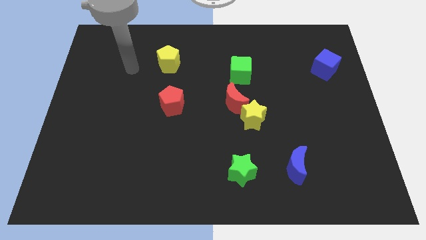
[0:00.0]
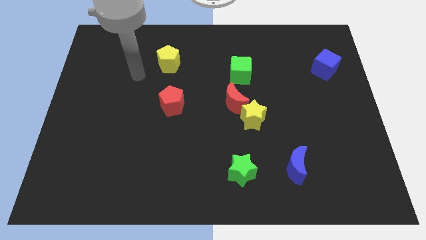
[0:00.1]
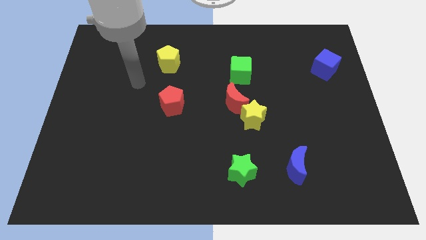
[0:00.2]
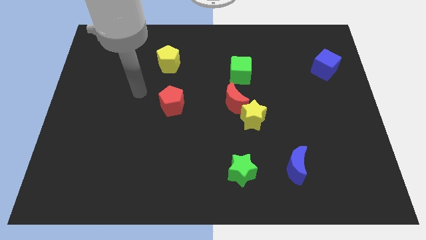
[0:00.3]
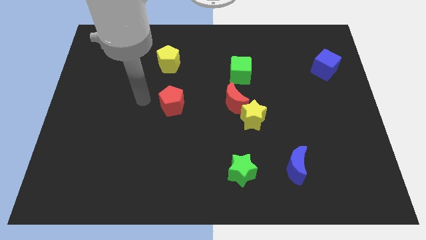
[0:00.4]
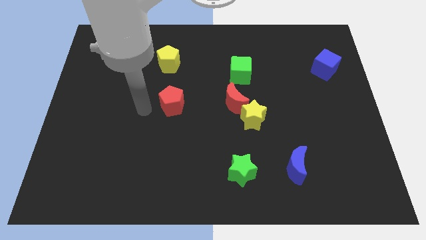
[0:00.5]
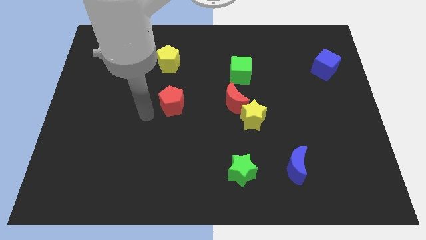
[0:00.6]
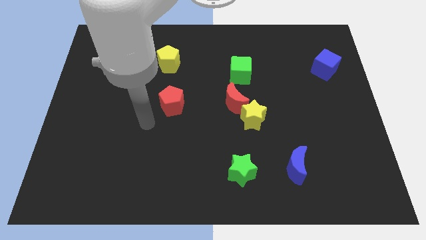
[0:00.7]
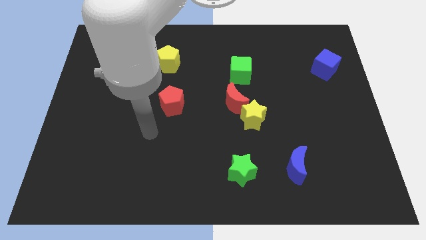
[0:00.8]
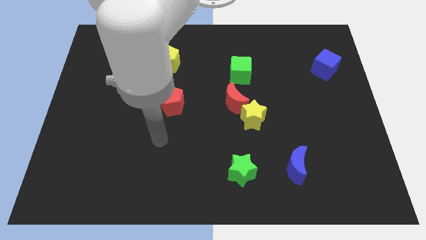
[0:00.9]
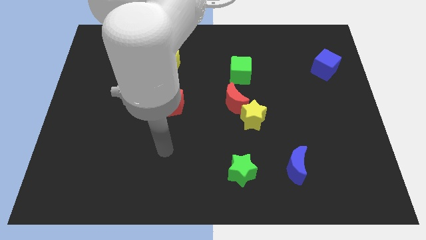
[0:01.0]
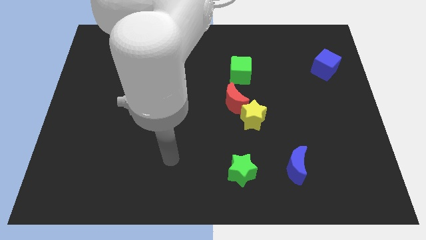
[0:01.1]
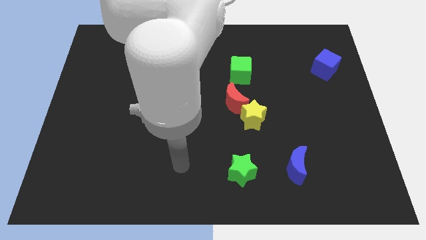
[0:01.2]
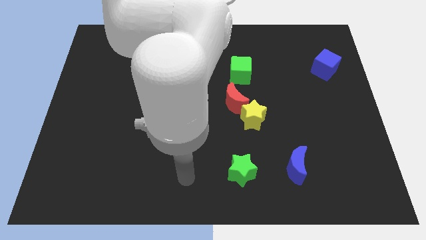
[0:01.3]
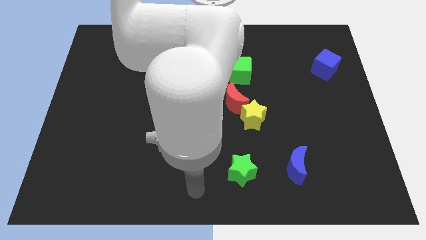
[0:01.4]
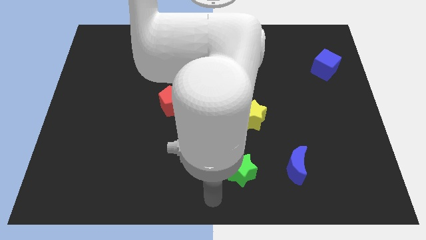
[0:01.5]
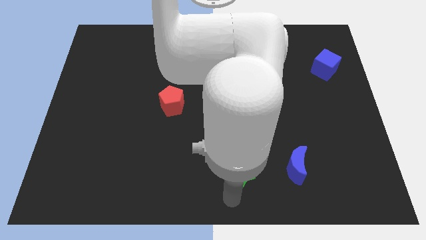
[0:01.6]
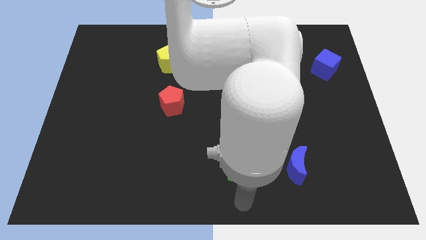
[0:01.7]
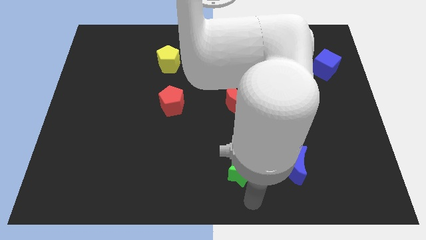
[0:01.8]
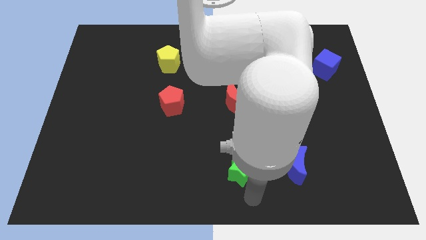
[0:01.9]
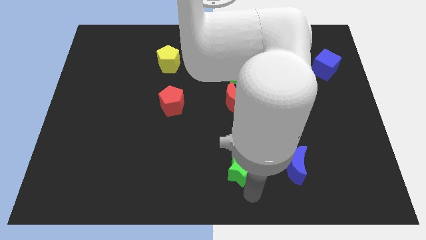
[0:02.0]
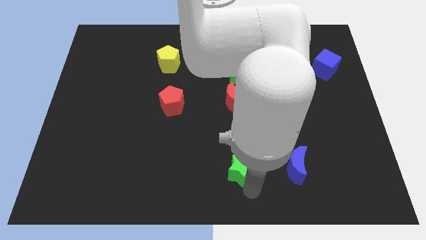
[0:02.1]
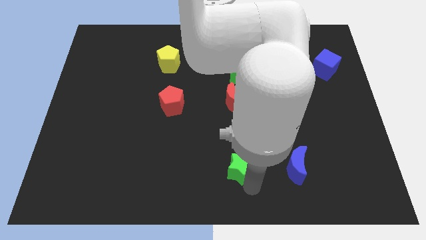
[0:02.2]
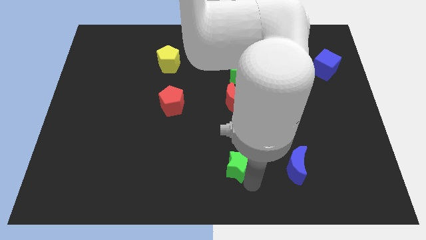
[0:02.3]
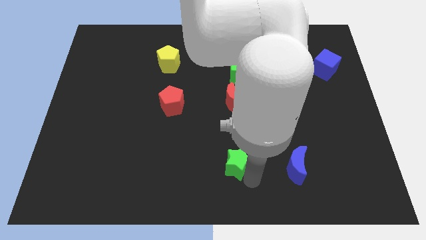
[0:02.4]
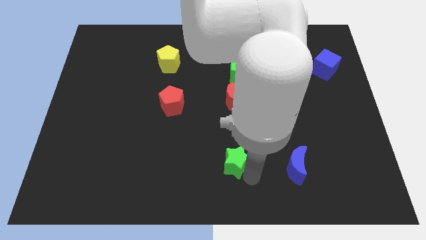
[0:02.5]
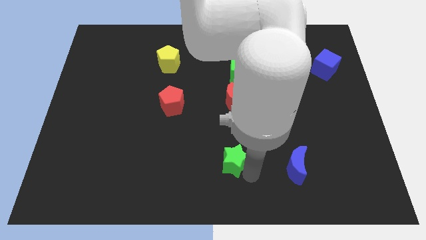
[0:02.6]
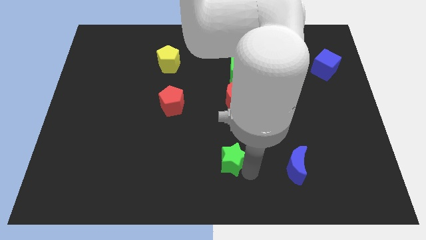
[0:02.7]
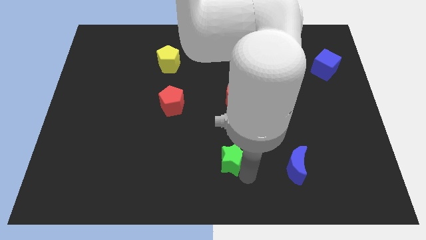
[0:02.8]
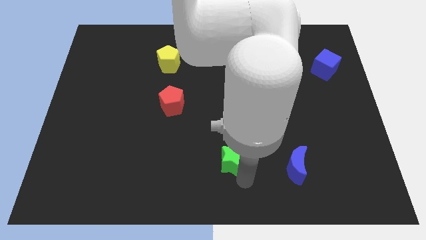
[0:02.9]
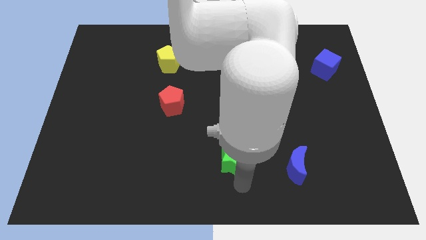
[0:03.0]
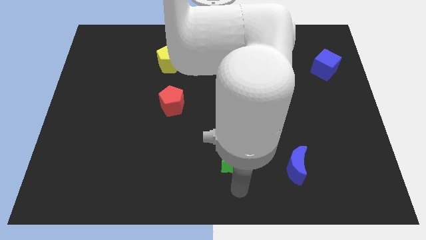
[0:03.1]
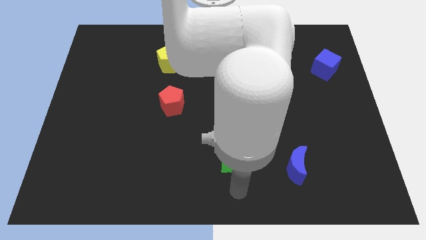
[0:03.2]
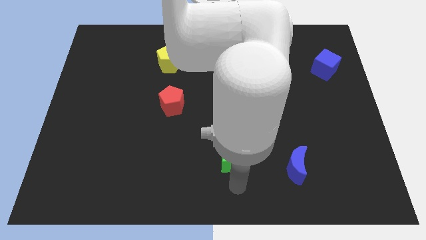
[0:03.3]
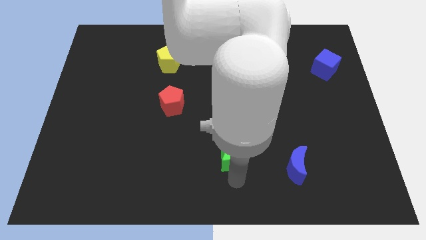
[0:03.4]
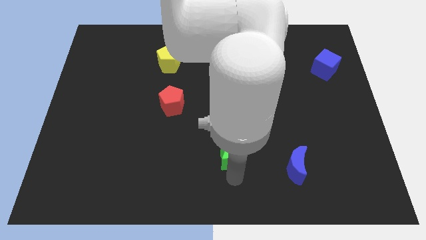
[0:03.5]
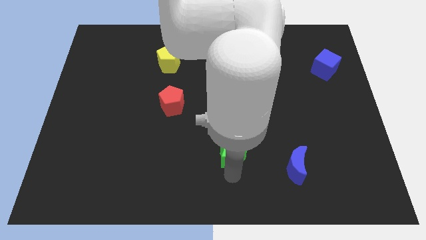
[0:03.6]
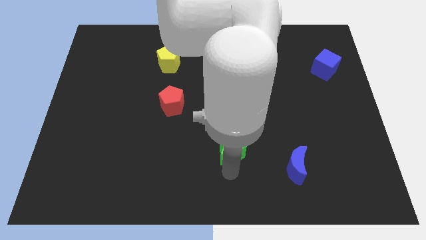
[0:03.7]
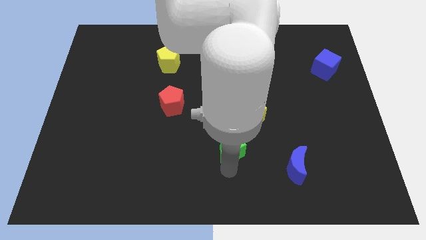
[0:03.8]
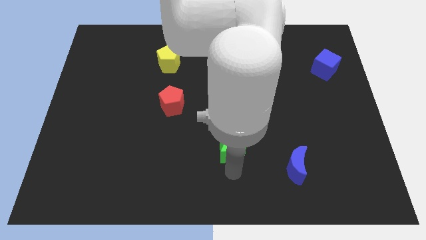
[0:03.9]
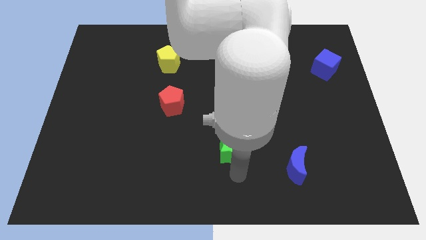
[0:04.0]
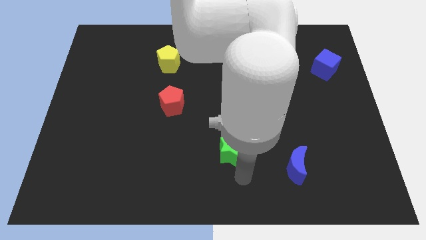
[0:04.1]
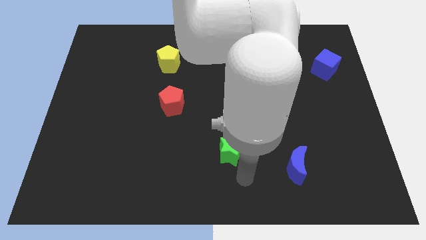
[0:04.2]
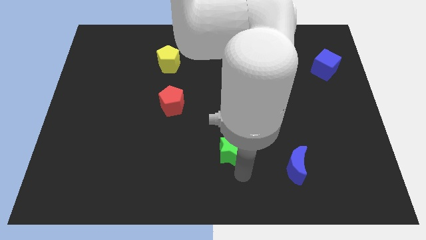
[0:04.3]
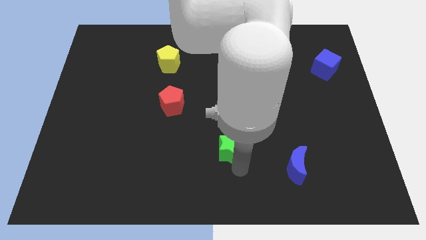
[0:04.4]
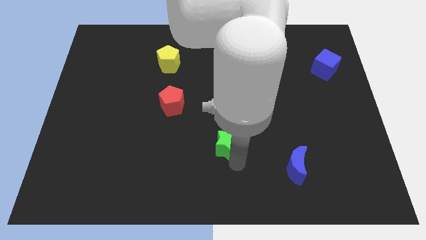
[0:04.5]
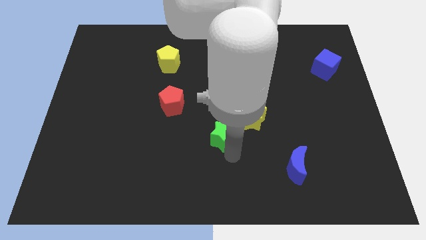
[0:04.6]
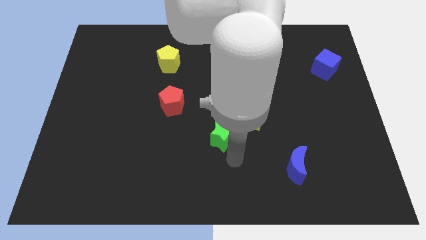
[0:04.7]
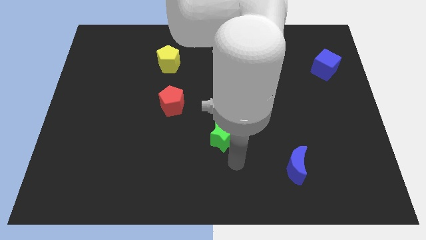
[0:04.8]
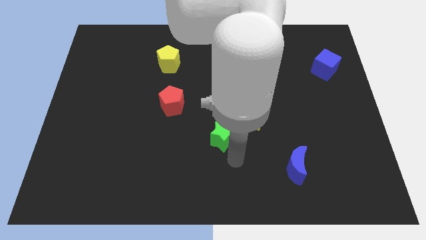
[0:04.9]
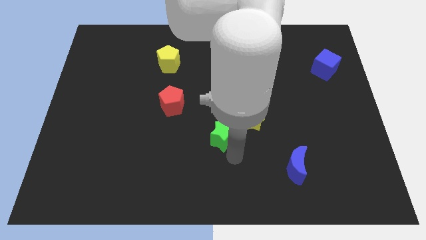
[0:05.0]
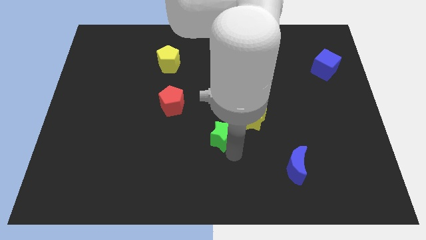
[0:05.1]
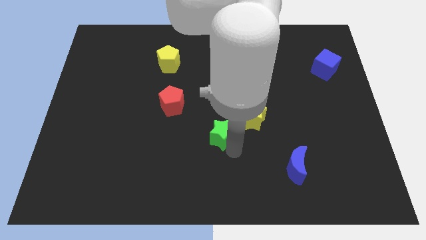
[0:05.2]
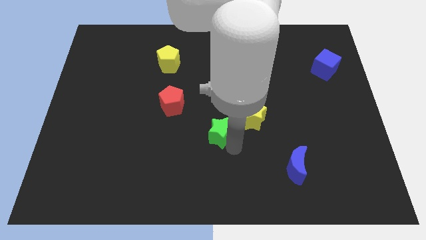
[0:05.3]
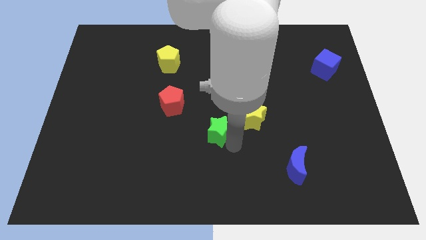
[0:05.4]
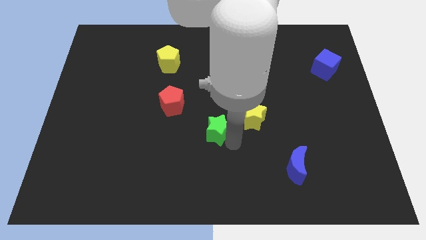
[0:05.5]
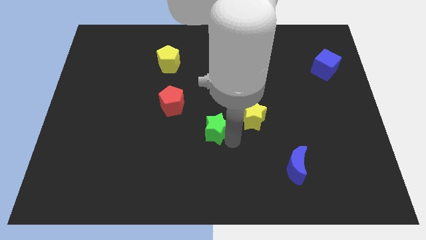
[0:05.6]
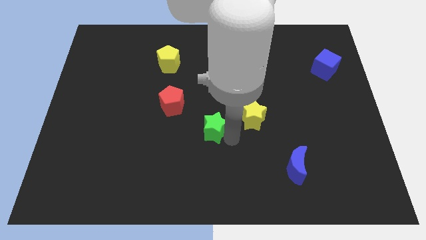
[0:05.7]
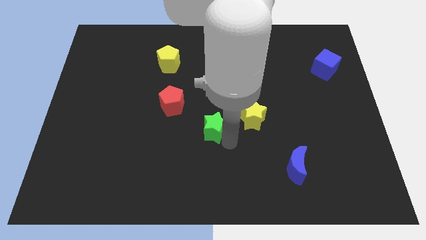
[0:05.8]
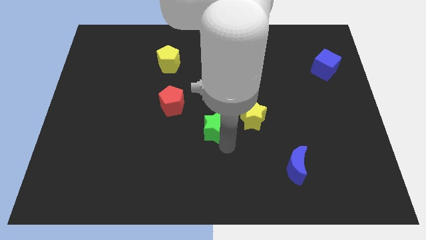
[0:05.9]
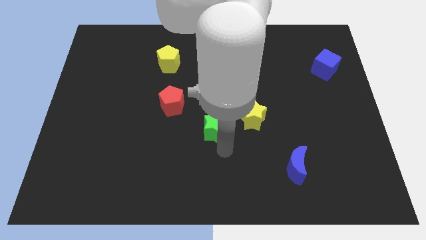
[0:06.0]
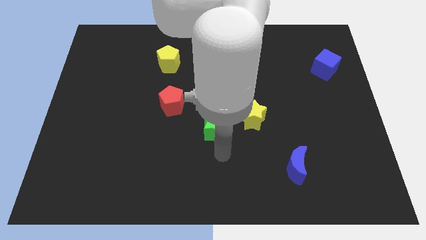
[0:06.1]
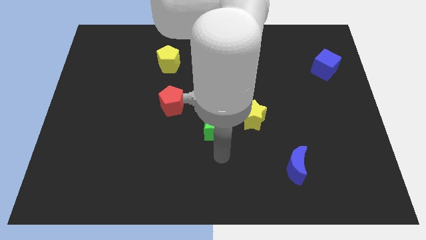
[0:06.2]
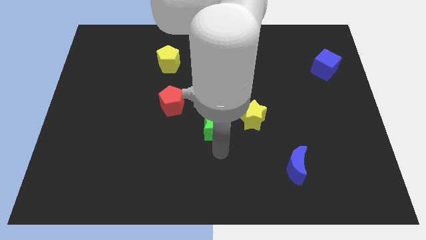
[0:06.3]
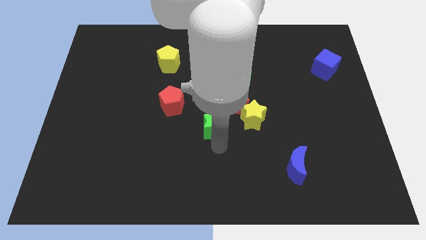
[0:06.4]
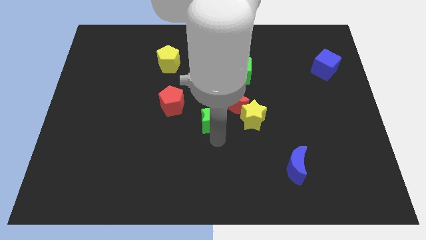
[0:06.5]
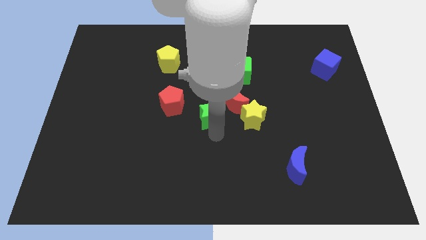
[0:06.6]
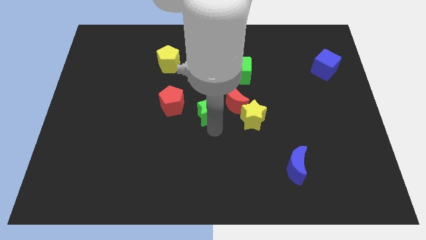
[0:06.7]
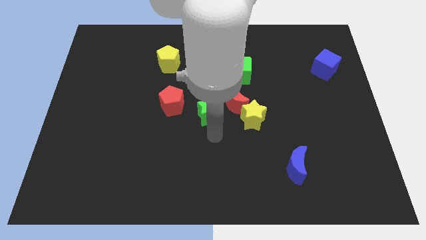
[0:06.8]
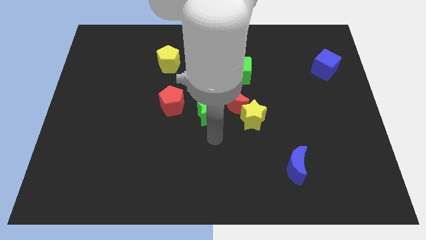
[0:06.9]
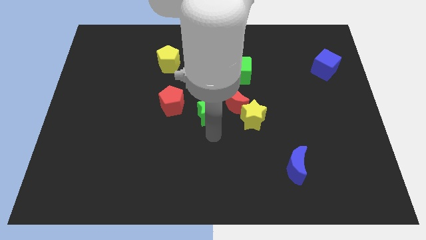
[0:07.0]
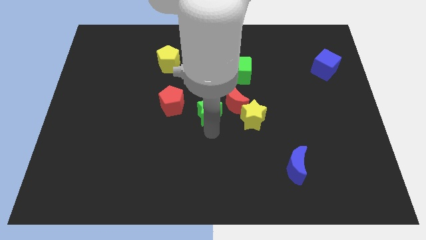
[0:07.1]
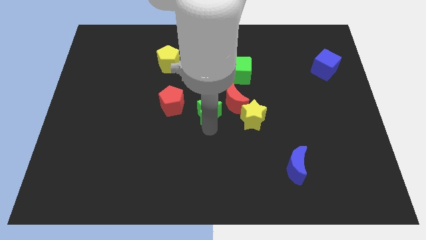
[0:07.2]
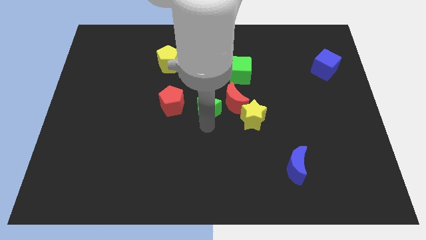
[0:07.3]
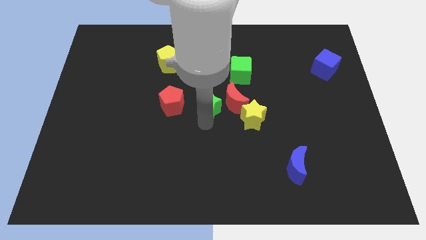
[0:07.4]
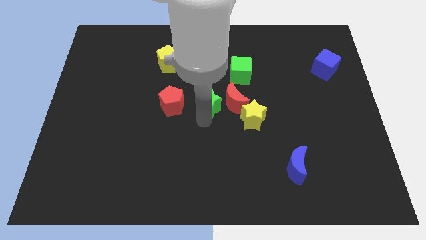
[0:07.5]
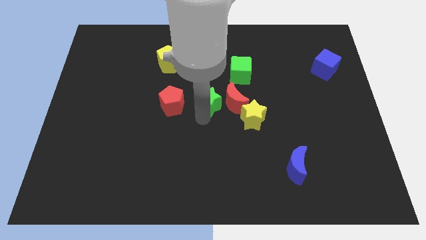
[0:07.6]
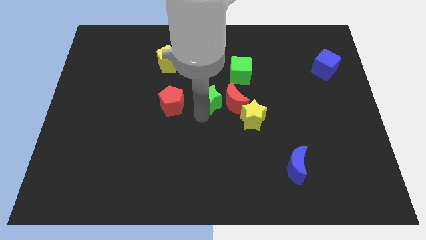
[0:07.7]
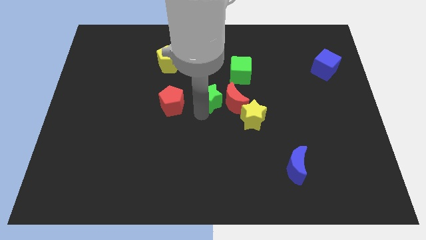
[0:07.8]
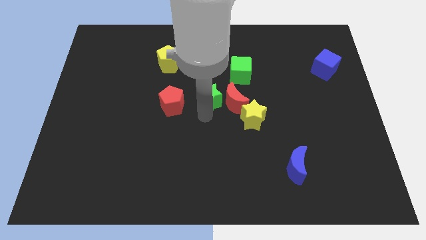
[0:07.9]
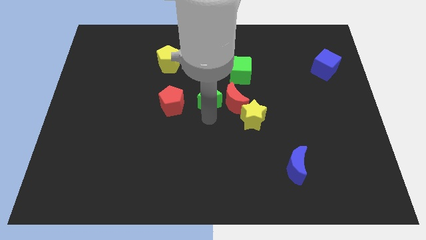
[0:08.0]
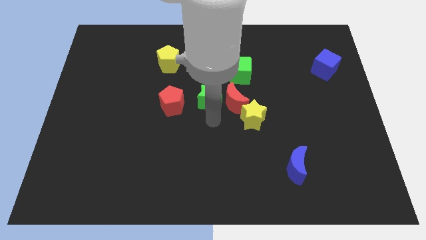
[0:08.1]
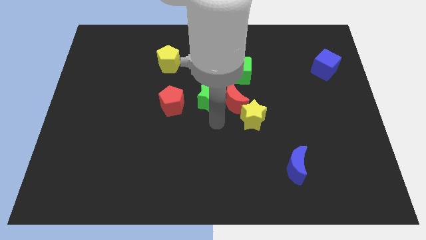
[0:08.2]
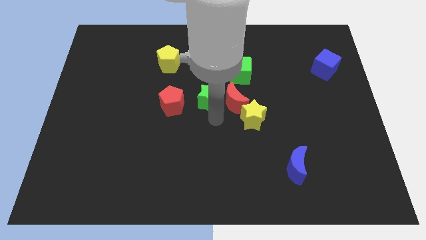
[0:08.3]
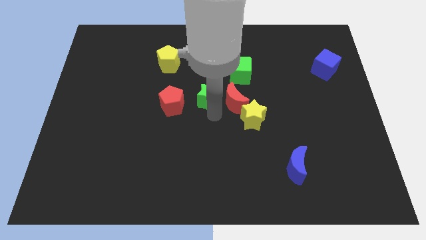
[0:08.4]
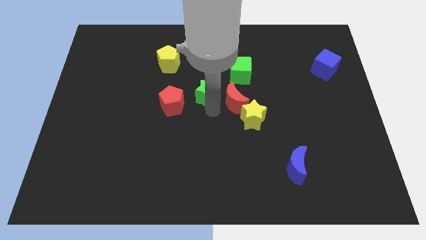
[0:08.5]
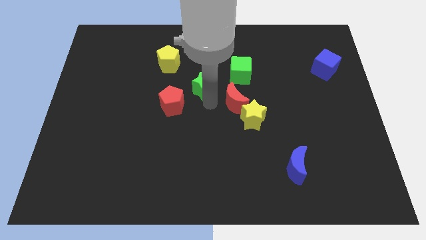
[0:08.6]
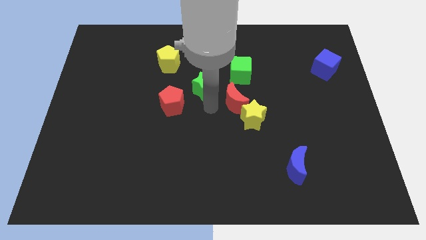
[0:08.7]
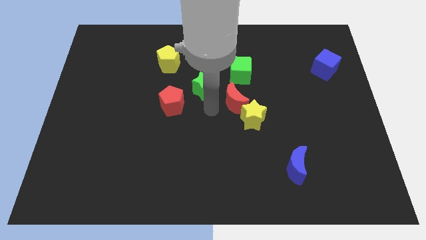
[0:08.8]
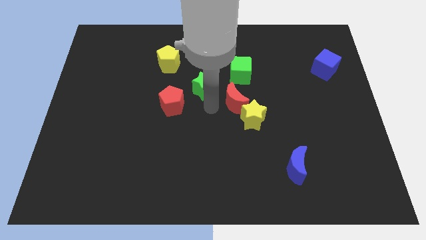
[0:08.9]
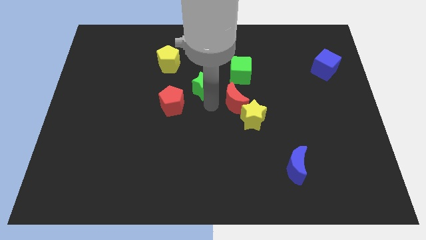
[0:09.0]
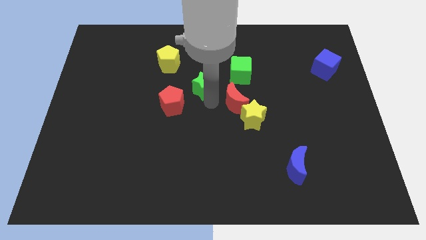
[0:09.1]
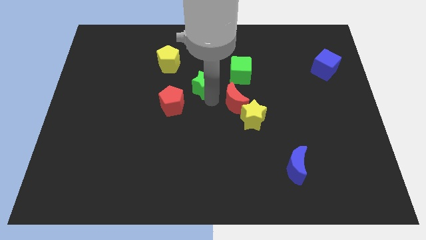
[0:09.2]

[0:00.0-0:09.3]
push the green star left of the green cube
